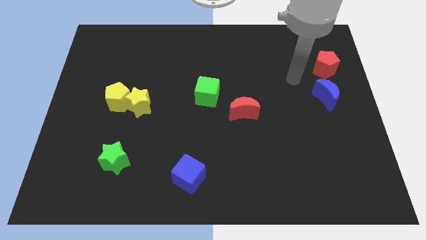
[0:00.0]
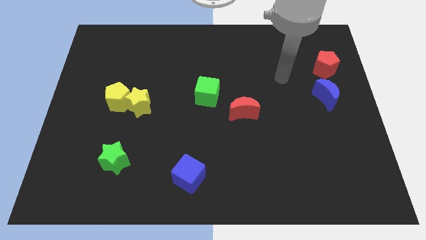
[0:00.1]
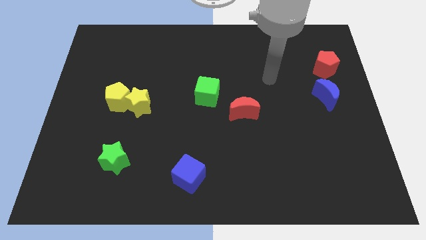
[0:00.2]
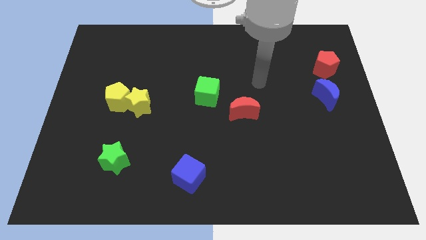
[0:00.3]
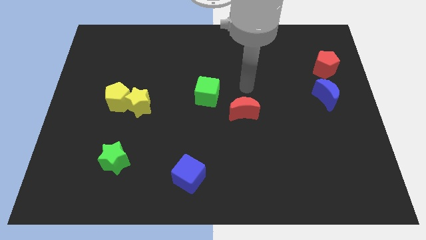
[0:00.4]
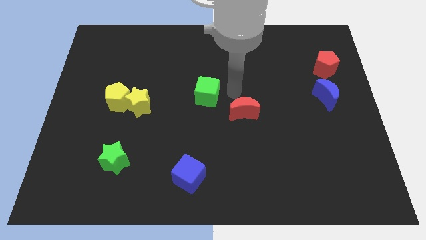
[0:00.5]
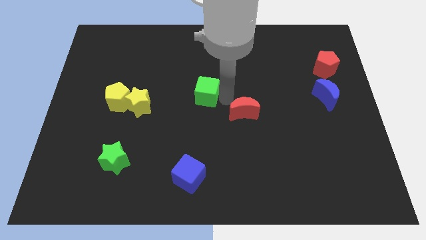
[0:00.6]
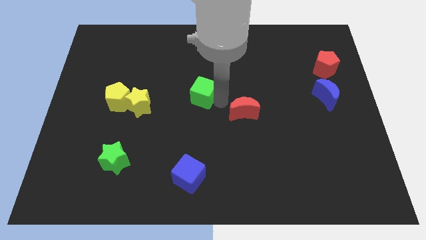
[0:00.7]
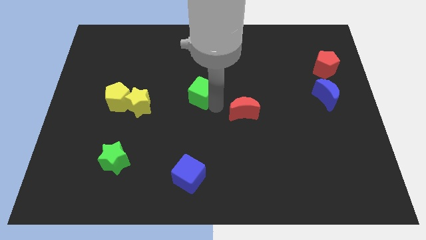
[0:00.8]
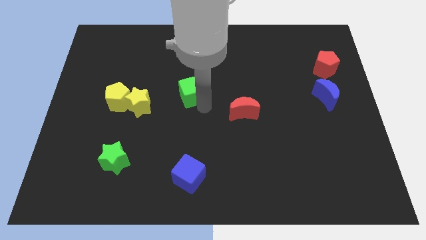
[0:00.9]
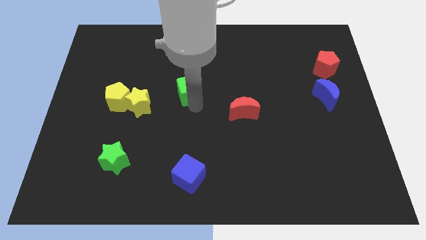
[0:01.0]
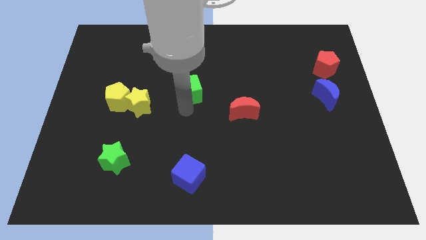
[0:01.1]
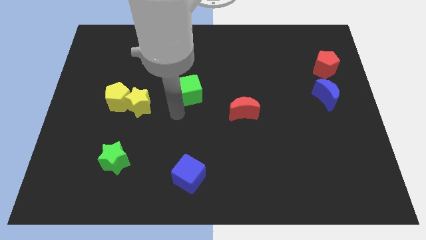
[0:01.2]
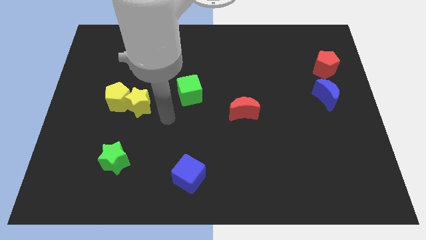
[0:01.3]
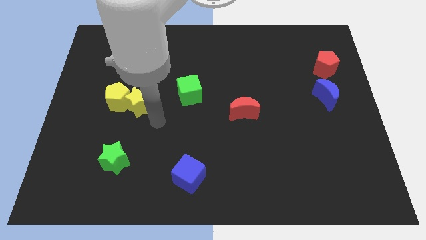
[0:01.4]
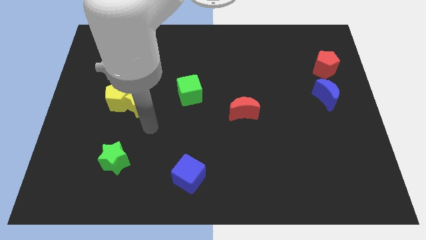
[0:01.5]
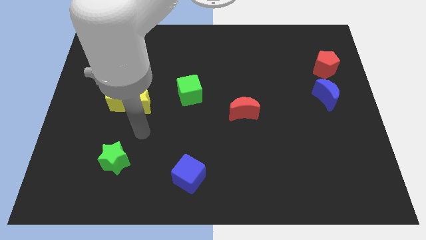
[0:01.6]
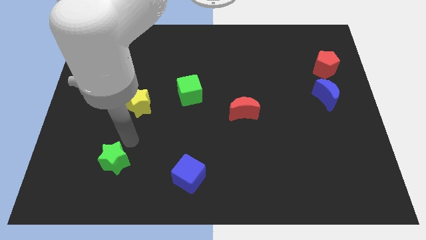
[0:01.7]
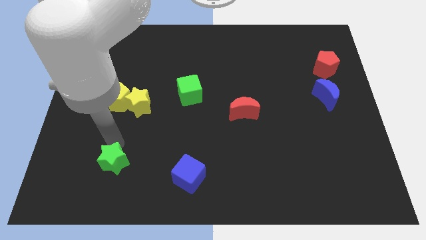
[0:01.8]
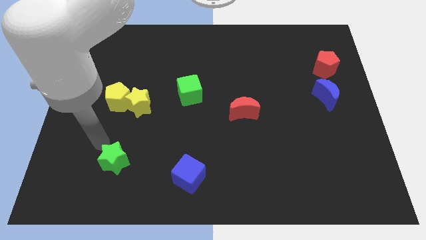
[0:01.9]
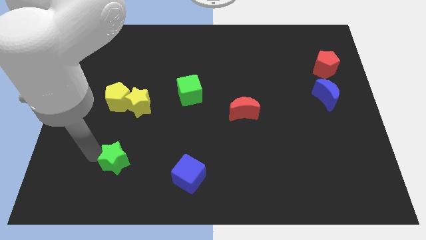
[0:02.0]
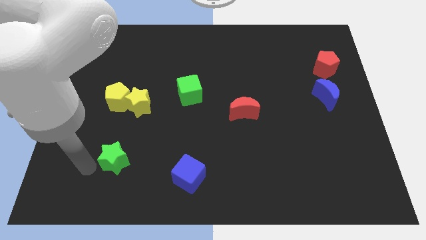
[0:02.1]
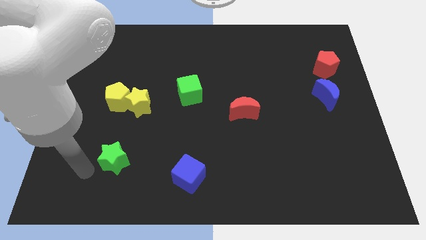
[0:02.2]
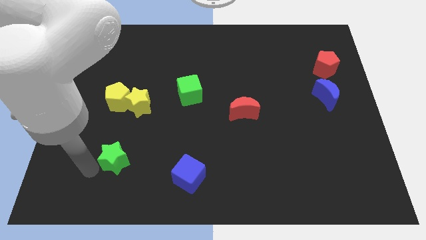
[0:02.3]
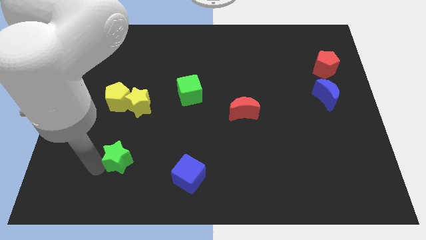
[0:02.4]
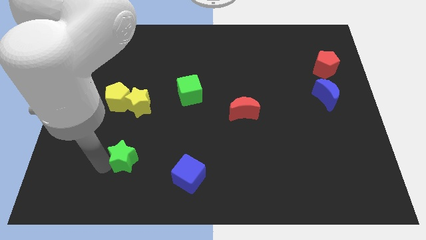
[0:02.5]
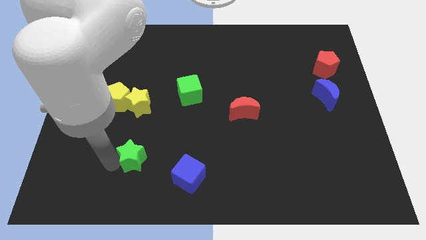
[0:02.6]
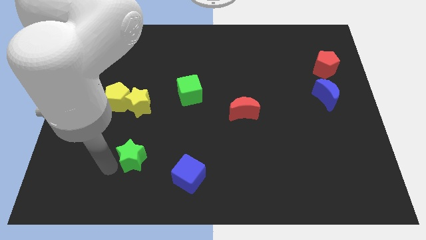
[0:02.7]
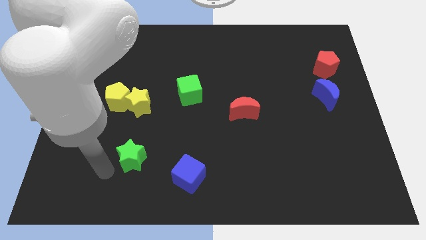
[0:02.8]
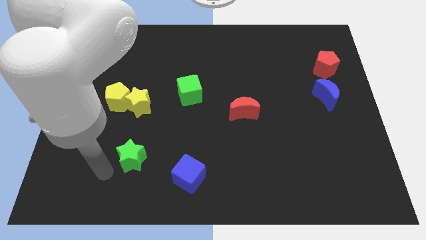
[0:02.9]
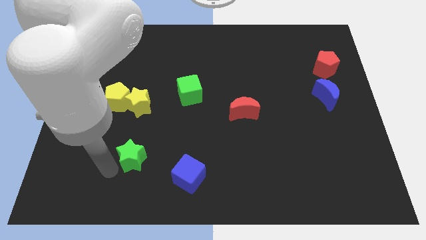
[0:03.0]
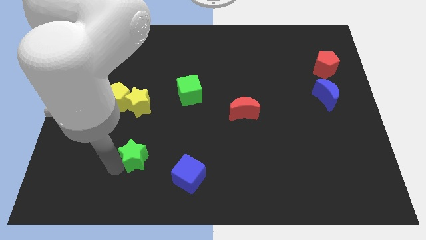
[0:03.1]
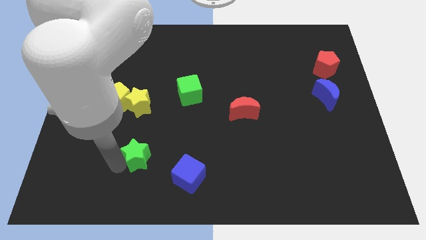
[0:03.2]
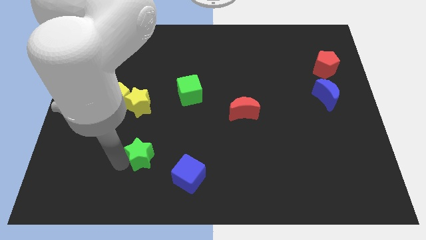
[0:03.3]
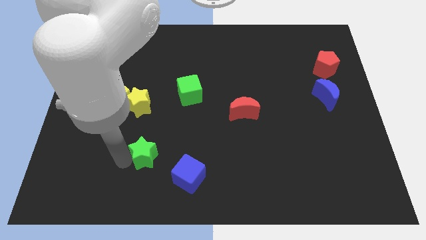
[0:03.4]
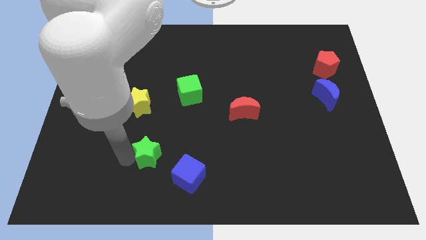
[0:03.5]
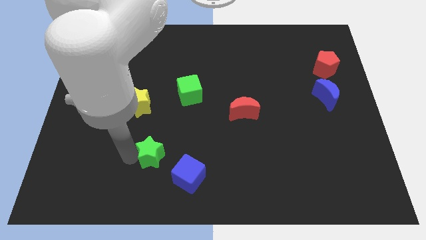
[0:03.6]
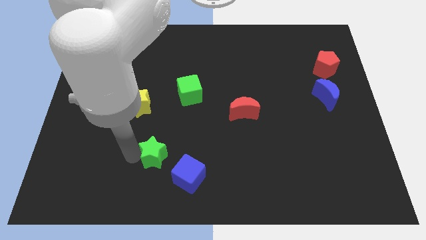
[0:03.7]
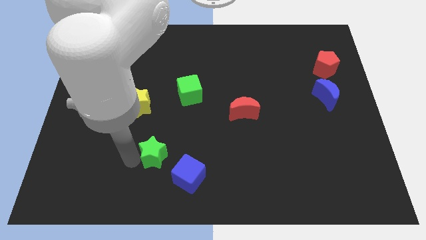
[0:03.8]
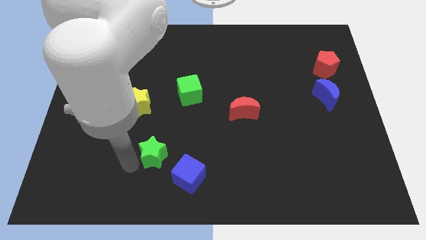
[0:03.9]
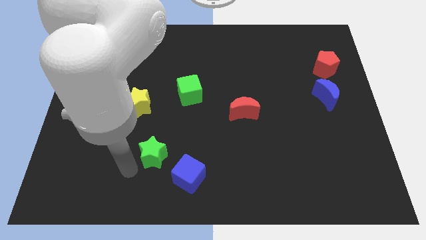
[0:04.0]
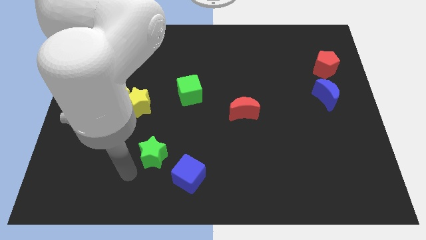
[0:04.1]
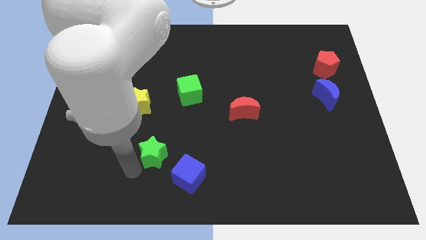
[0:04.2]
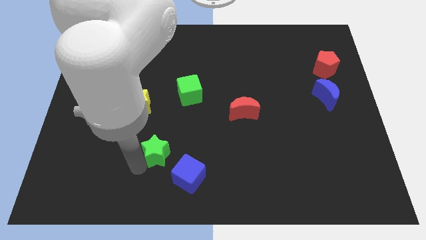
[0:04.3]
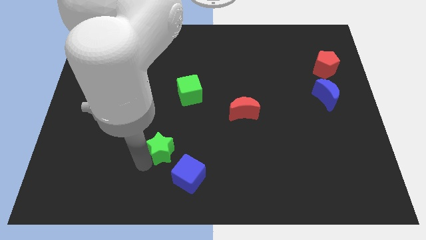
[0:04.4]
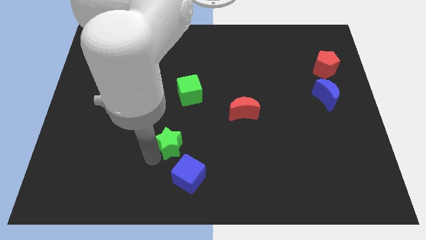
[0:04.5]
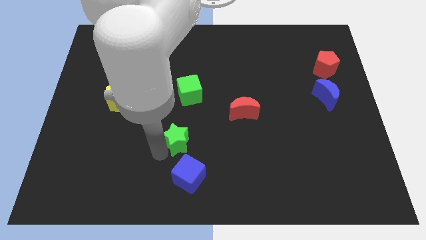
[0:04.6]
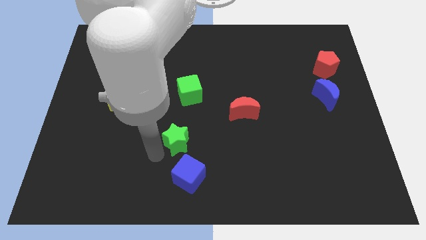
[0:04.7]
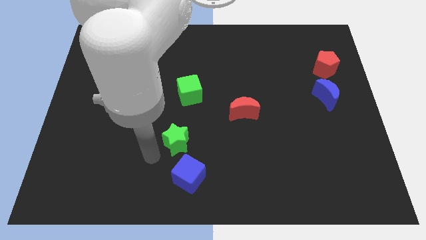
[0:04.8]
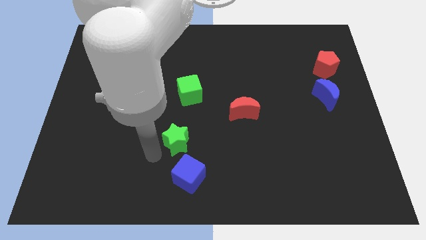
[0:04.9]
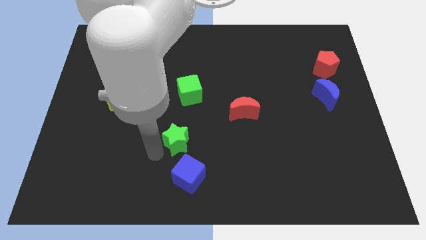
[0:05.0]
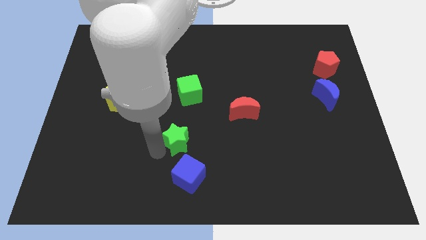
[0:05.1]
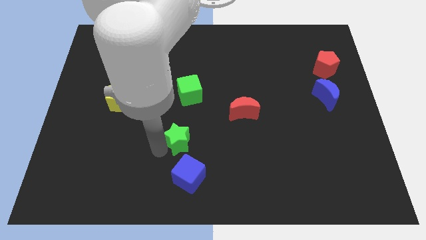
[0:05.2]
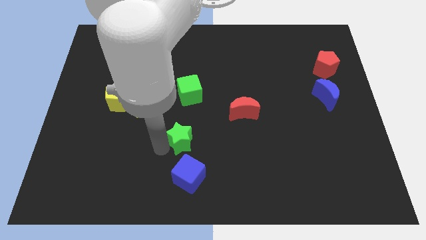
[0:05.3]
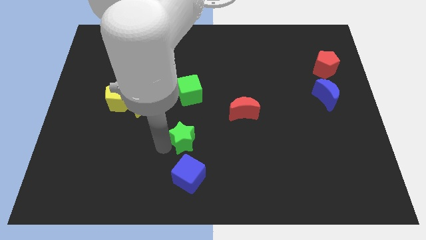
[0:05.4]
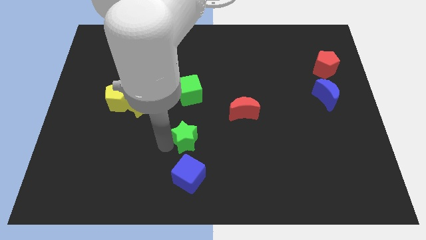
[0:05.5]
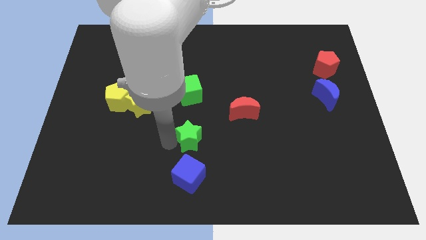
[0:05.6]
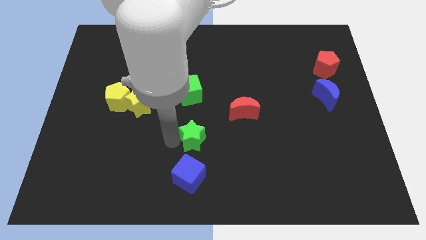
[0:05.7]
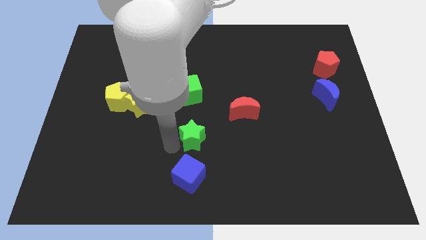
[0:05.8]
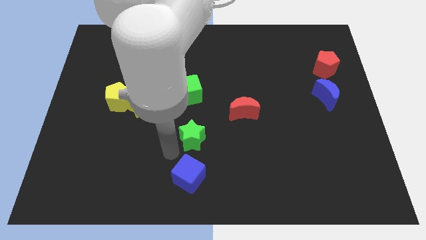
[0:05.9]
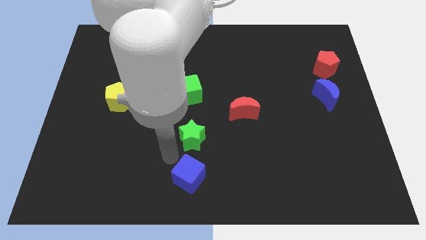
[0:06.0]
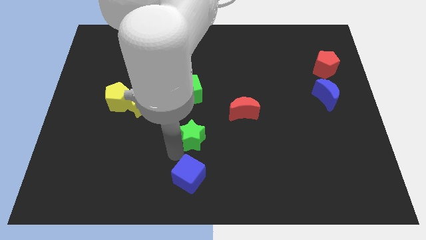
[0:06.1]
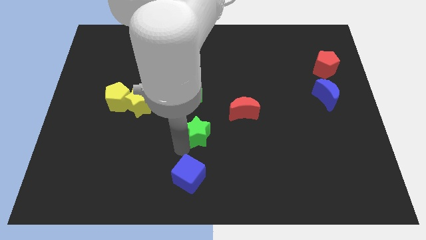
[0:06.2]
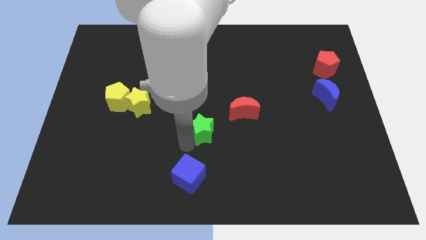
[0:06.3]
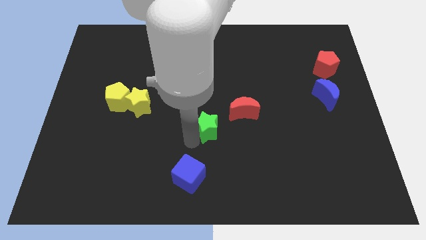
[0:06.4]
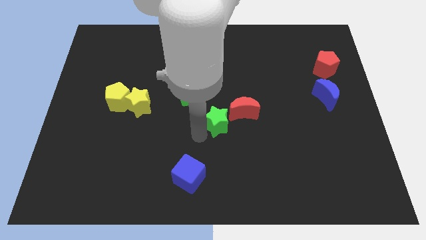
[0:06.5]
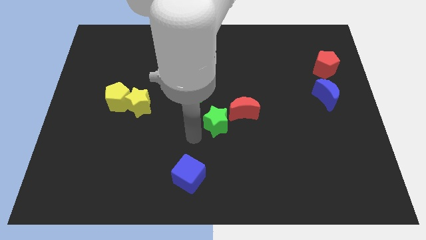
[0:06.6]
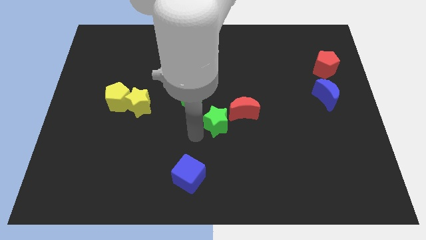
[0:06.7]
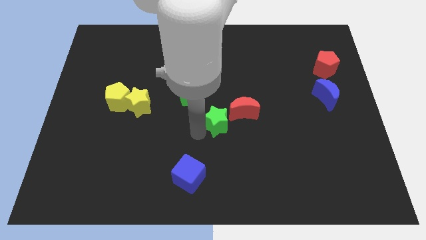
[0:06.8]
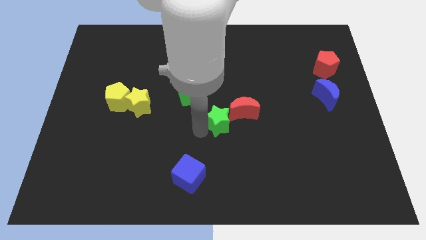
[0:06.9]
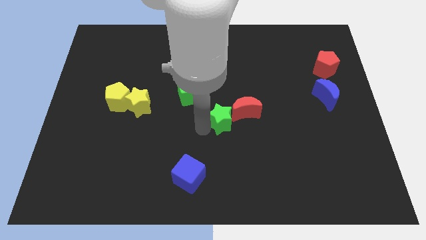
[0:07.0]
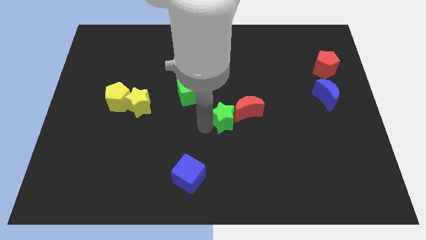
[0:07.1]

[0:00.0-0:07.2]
move the green star close to the red moon
